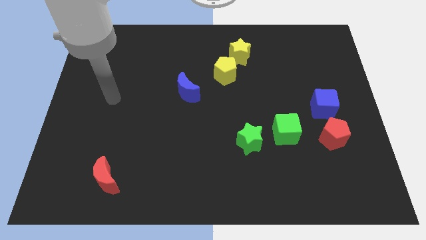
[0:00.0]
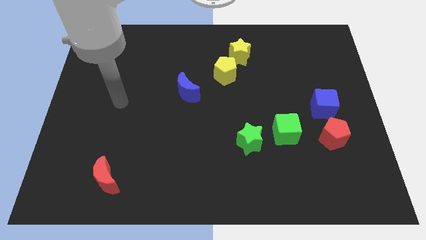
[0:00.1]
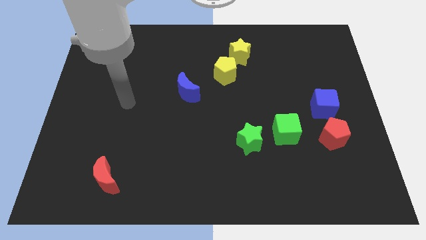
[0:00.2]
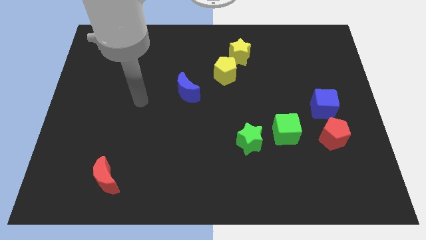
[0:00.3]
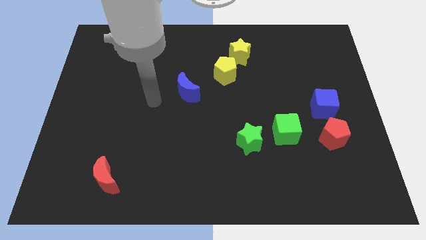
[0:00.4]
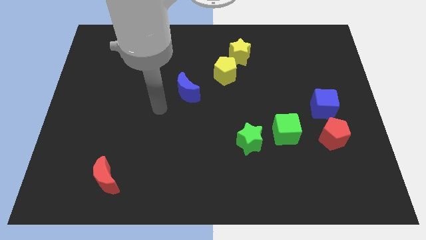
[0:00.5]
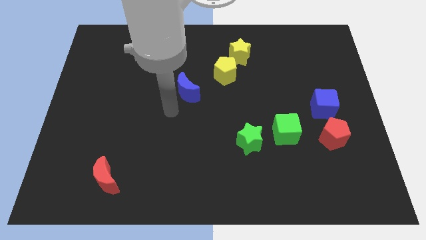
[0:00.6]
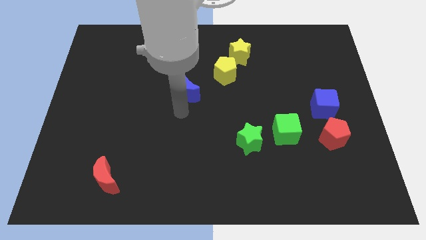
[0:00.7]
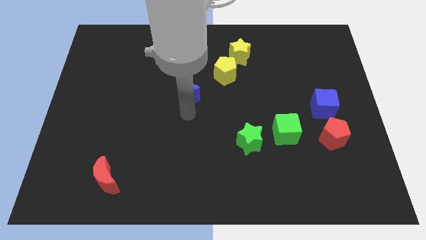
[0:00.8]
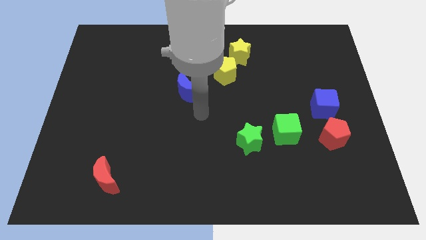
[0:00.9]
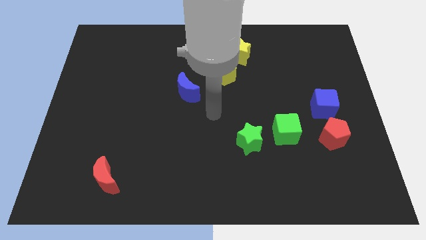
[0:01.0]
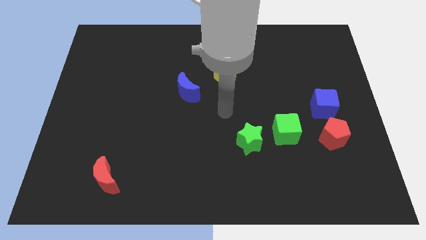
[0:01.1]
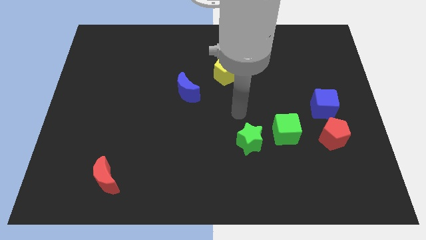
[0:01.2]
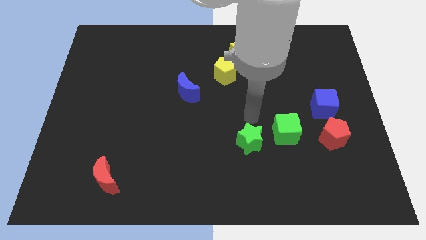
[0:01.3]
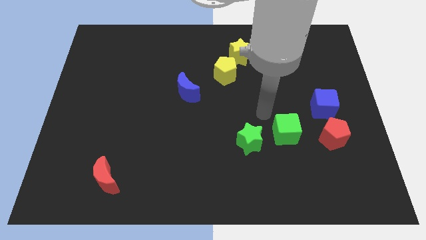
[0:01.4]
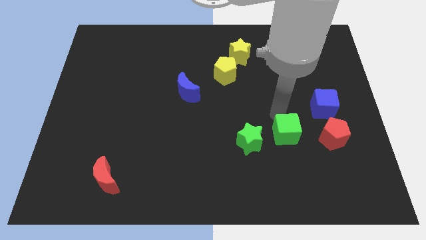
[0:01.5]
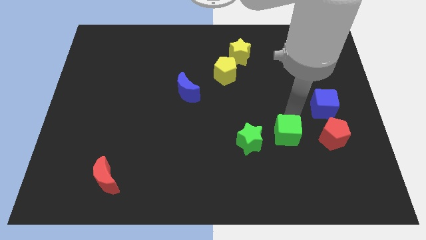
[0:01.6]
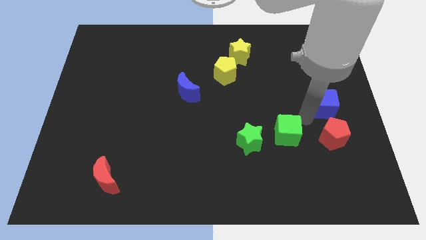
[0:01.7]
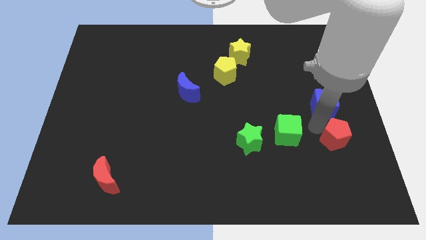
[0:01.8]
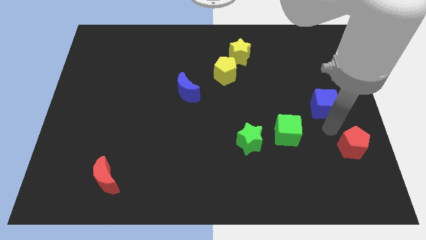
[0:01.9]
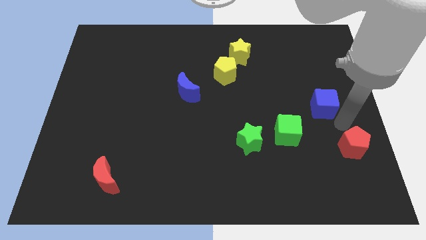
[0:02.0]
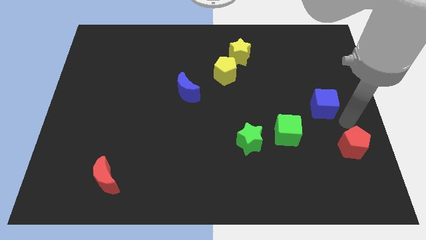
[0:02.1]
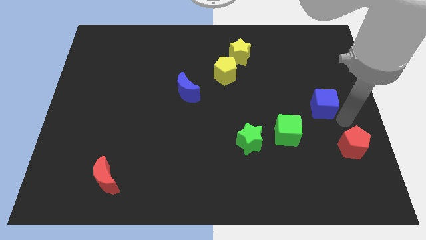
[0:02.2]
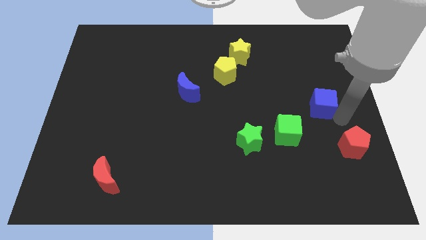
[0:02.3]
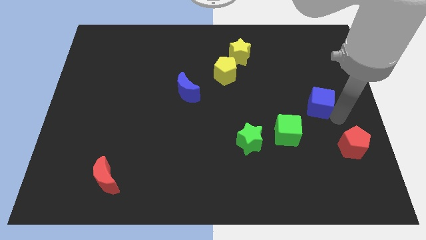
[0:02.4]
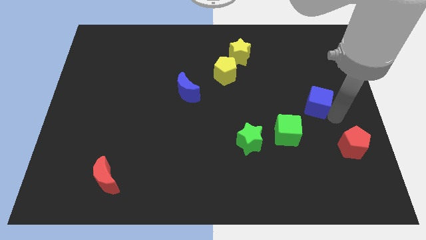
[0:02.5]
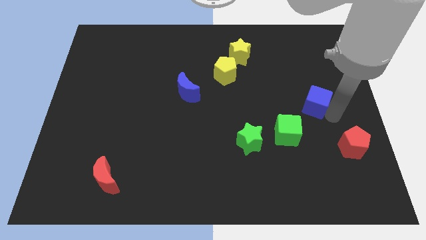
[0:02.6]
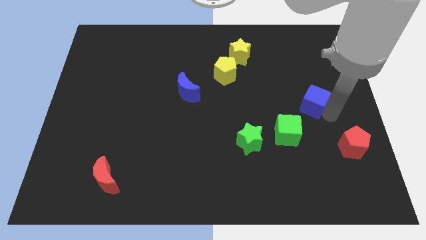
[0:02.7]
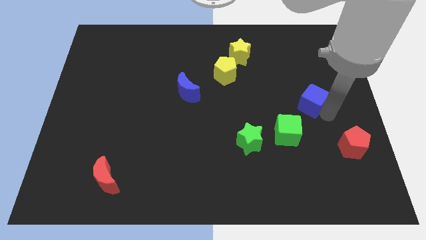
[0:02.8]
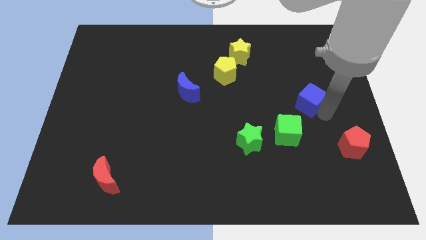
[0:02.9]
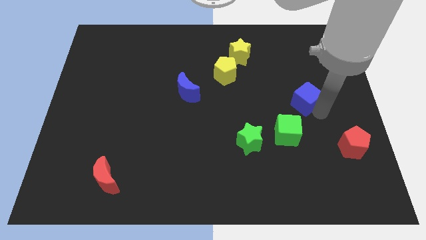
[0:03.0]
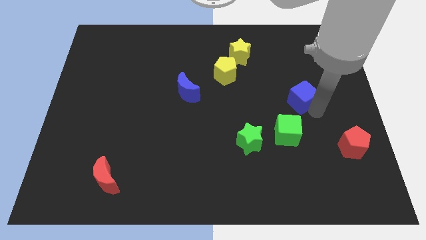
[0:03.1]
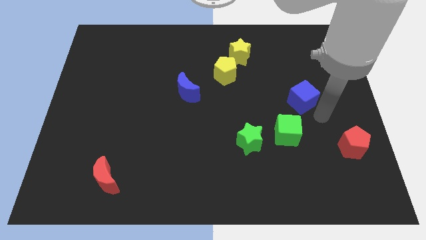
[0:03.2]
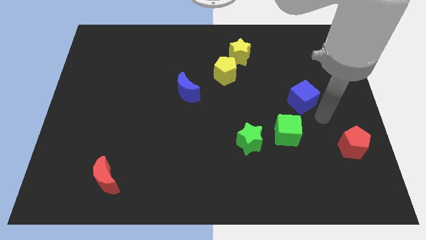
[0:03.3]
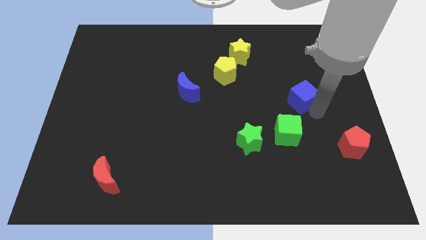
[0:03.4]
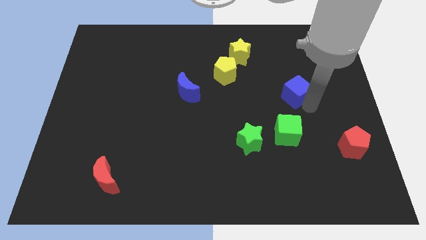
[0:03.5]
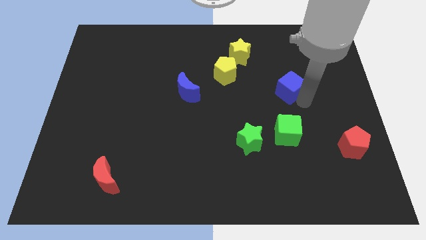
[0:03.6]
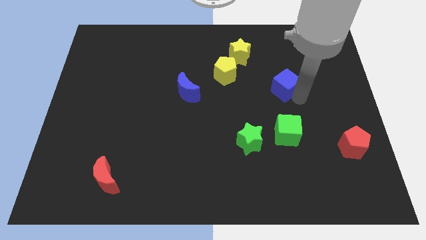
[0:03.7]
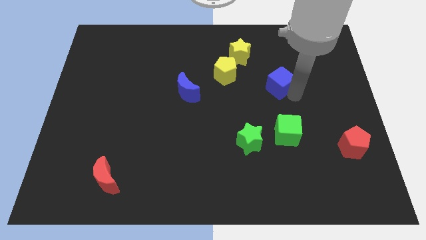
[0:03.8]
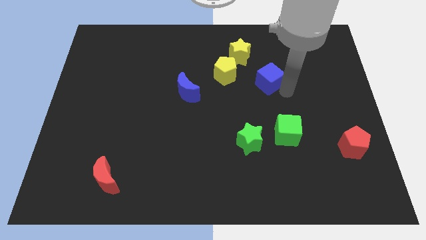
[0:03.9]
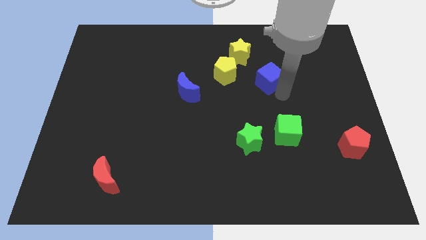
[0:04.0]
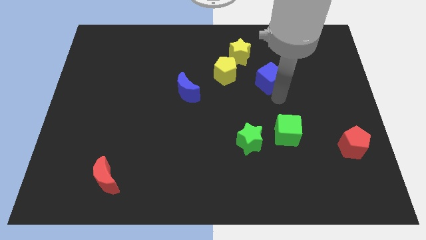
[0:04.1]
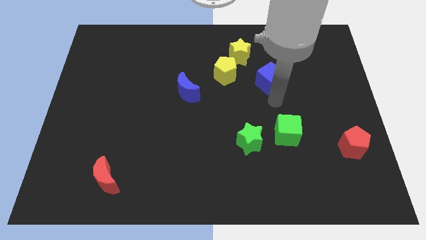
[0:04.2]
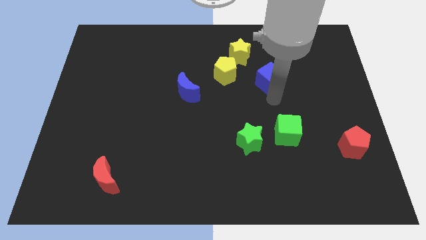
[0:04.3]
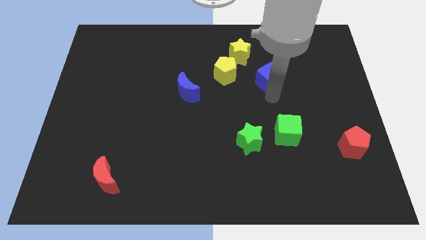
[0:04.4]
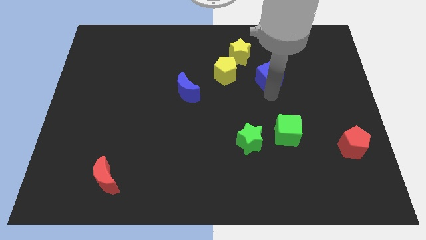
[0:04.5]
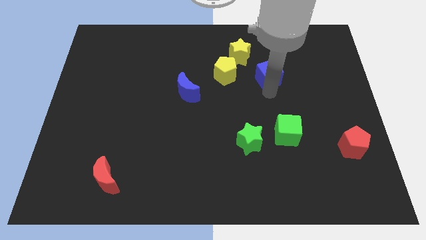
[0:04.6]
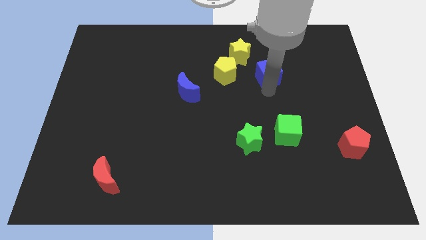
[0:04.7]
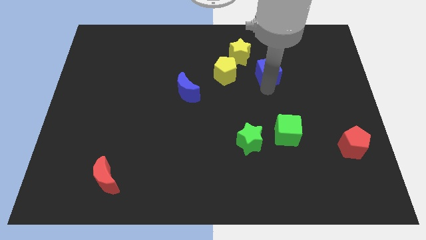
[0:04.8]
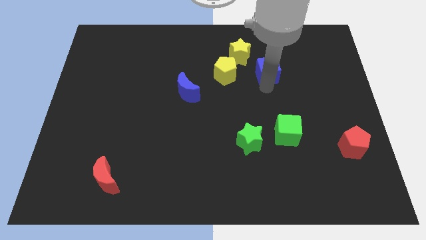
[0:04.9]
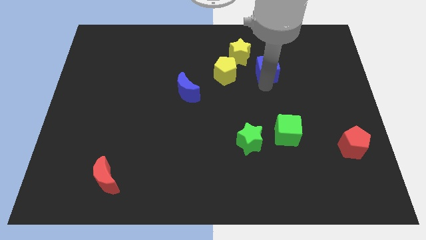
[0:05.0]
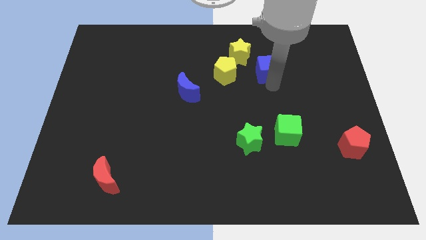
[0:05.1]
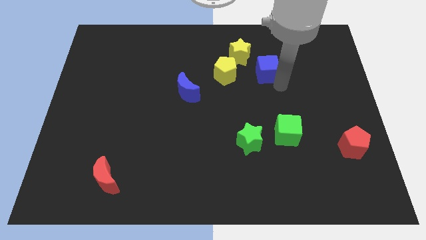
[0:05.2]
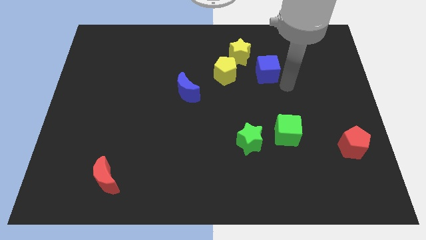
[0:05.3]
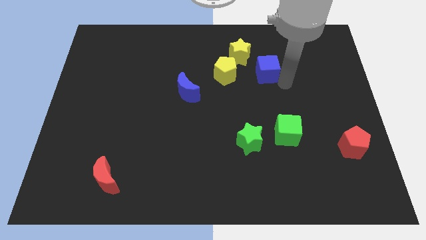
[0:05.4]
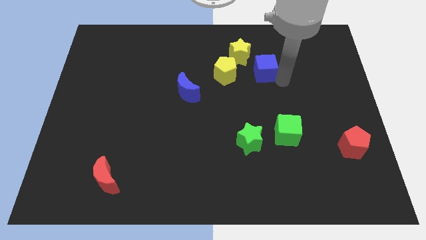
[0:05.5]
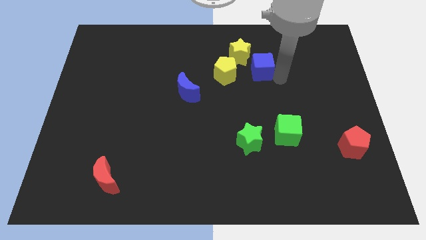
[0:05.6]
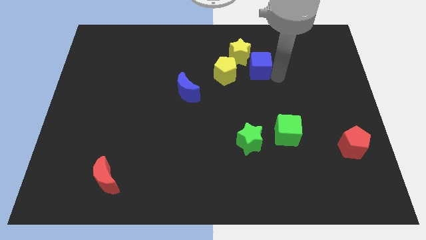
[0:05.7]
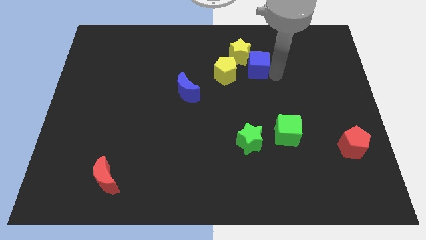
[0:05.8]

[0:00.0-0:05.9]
push the blue cube next to the yellow star

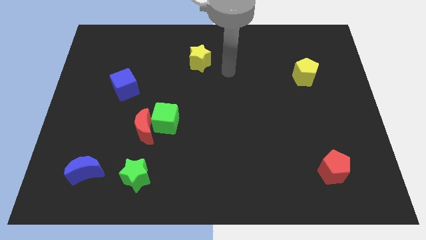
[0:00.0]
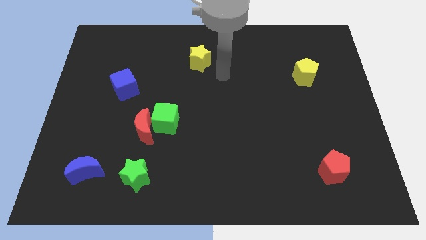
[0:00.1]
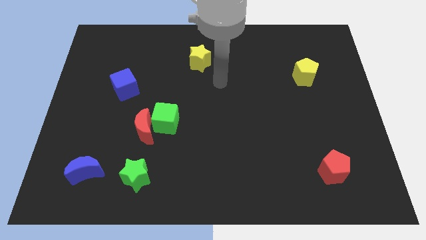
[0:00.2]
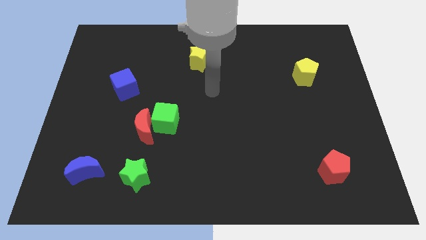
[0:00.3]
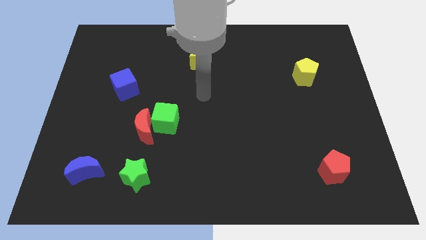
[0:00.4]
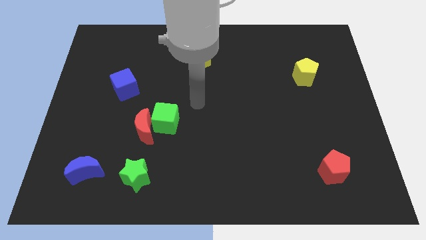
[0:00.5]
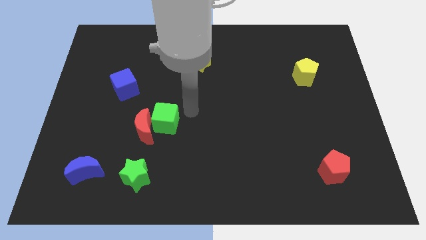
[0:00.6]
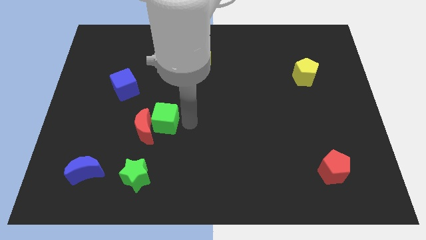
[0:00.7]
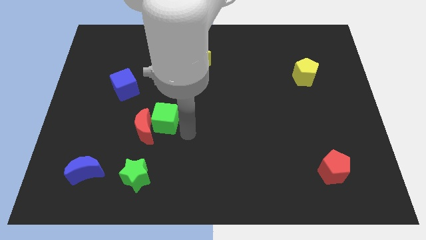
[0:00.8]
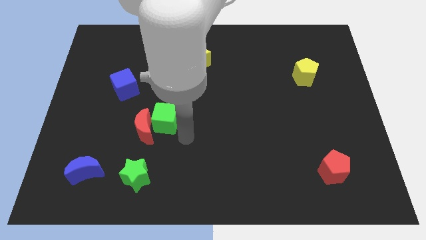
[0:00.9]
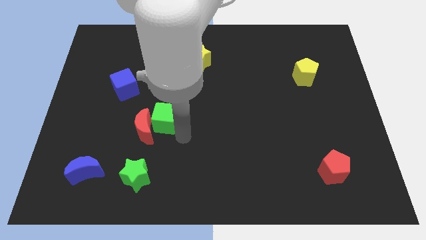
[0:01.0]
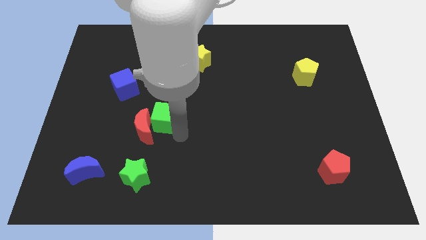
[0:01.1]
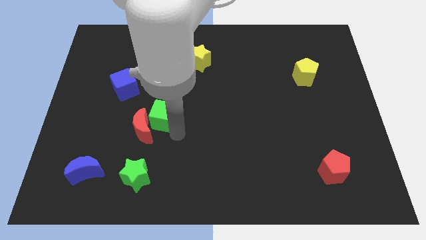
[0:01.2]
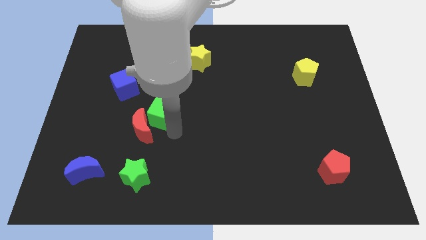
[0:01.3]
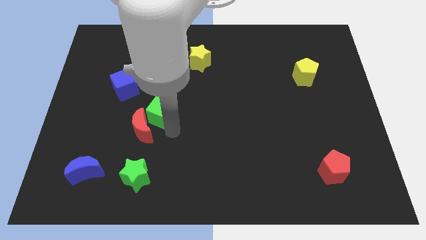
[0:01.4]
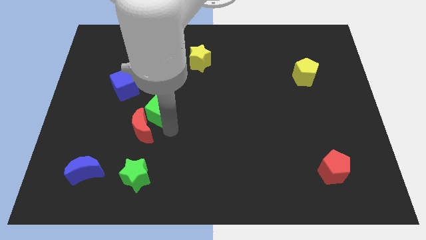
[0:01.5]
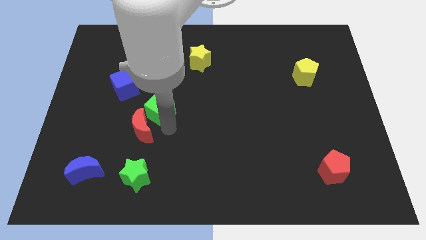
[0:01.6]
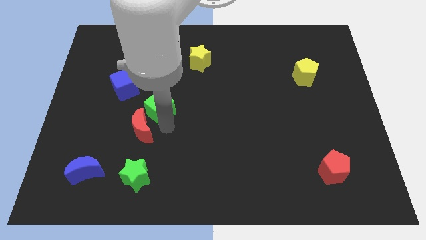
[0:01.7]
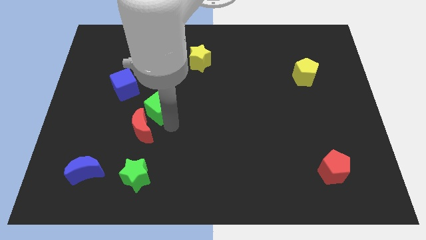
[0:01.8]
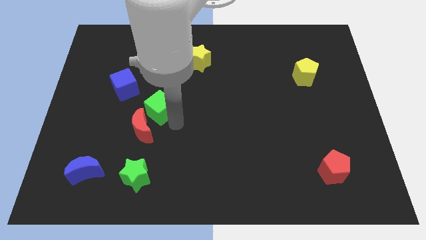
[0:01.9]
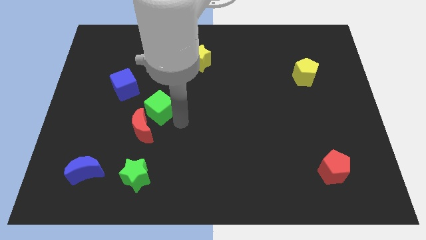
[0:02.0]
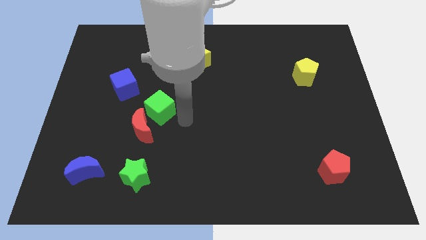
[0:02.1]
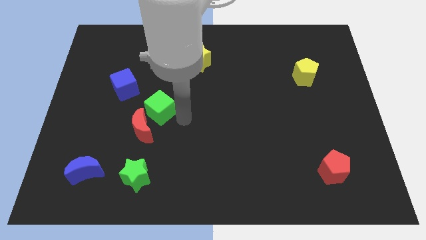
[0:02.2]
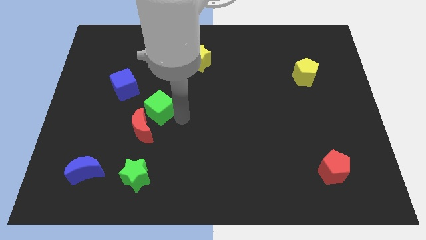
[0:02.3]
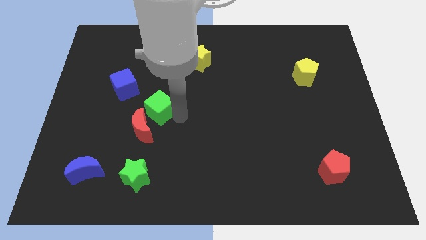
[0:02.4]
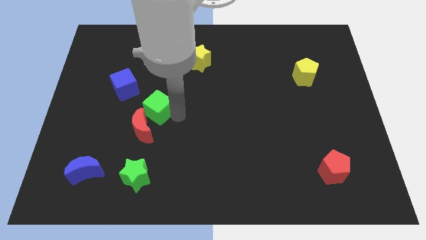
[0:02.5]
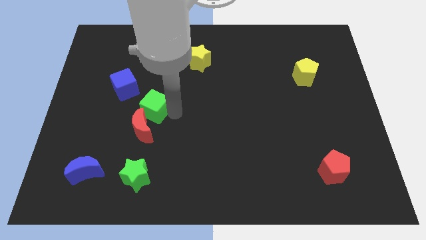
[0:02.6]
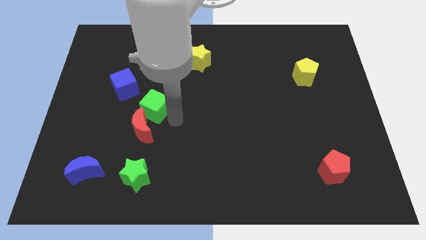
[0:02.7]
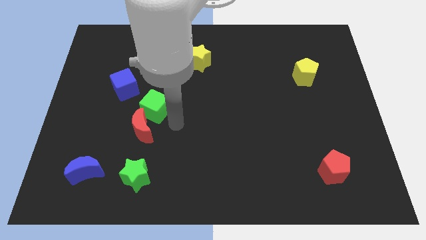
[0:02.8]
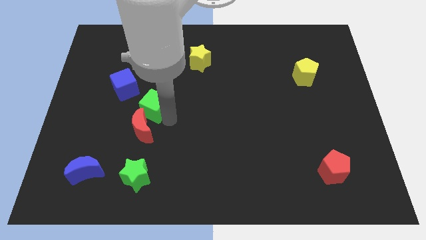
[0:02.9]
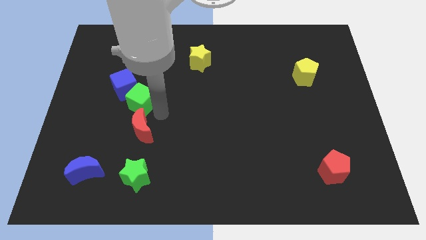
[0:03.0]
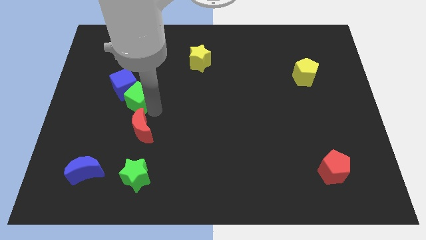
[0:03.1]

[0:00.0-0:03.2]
put the green cube to the blue cube
